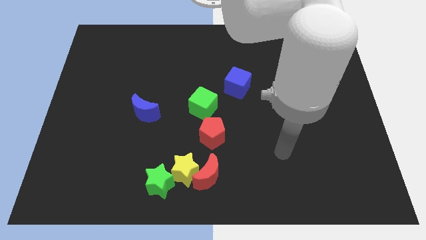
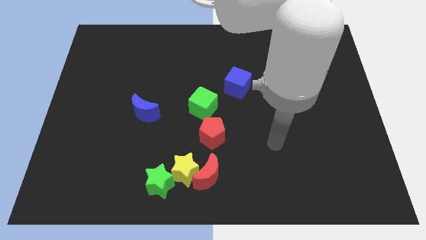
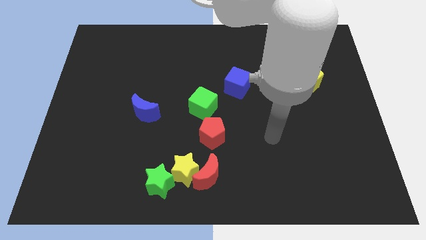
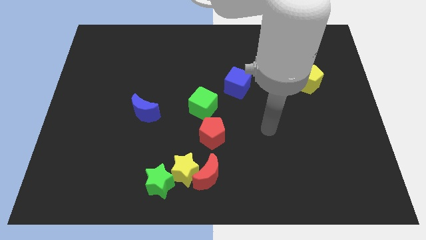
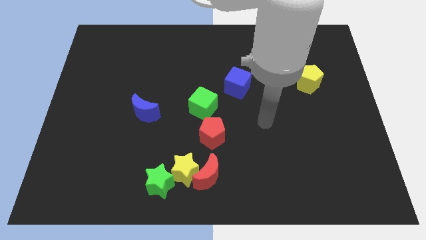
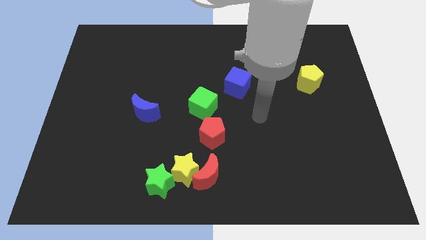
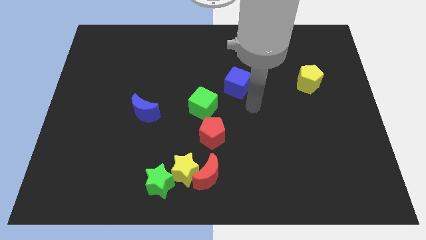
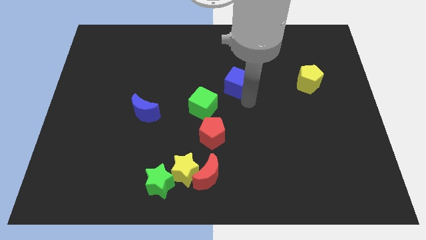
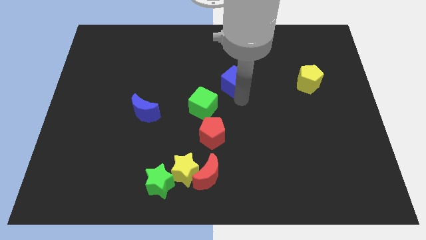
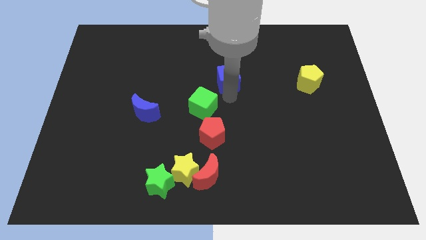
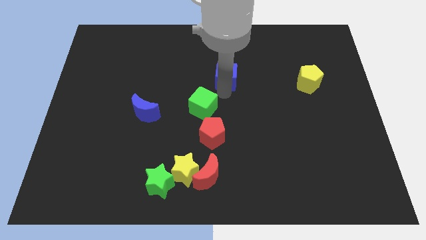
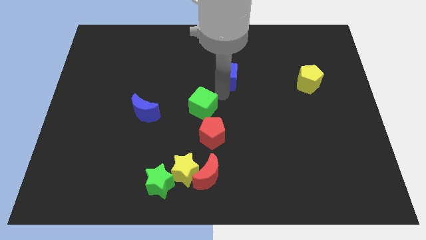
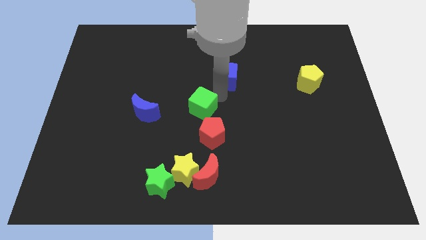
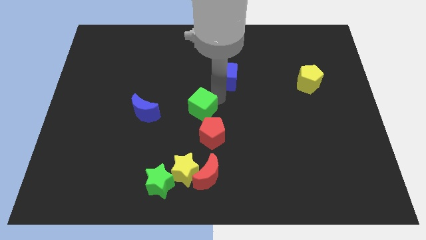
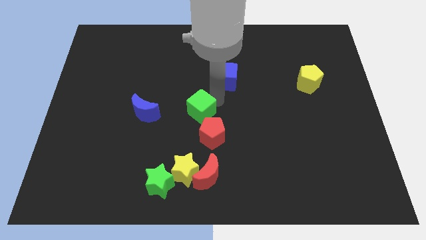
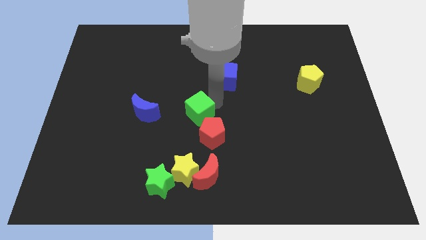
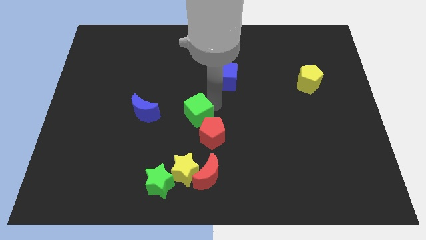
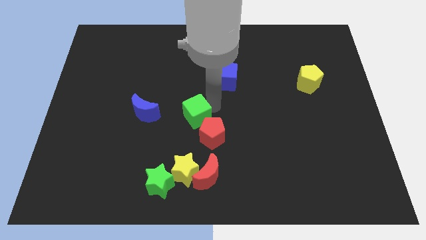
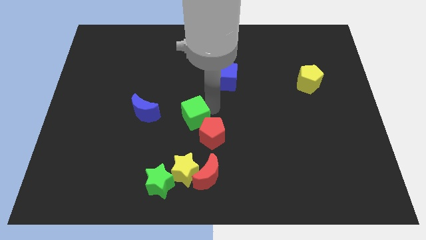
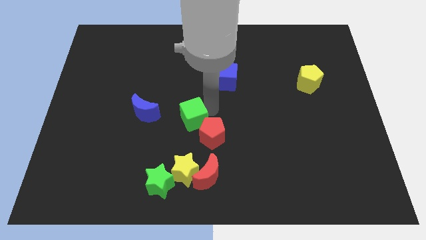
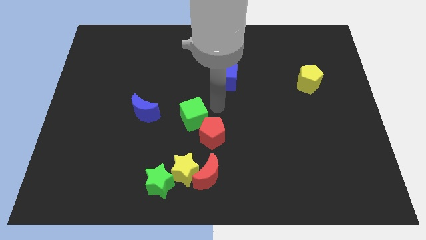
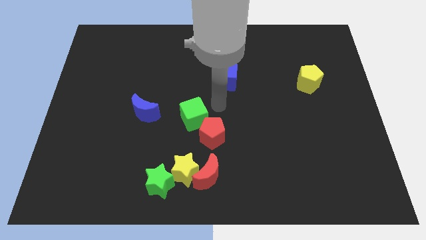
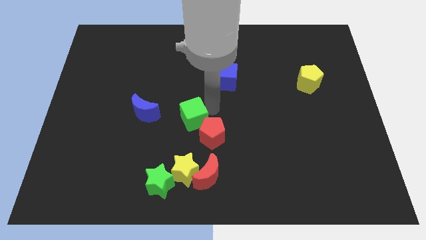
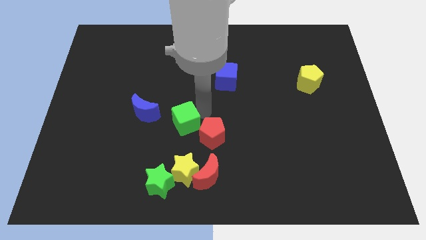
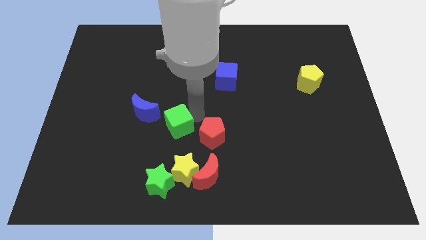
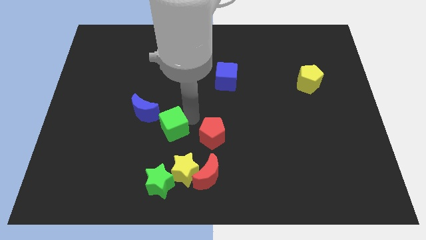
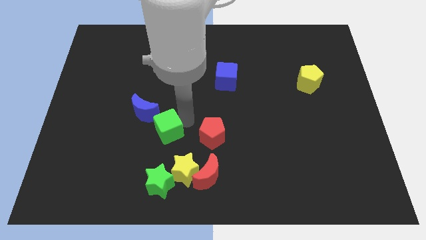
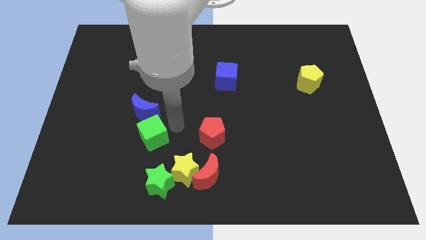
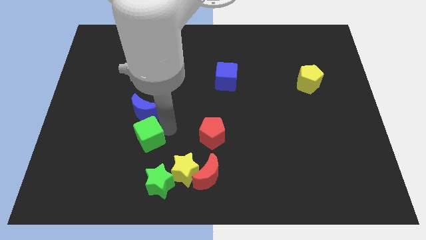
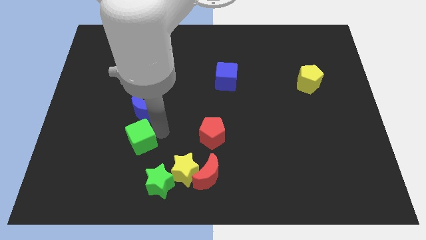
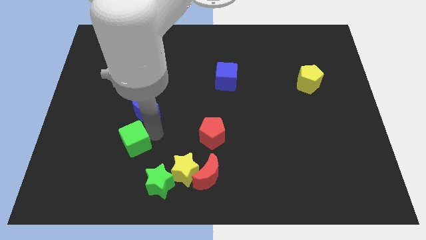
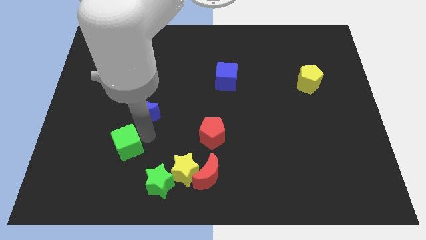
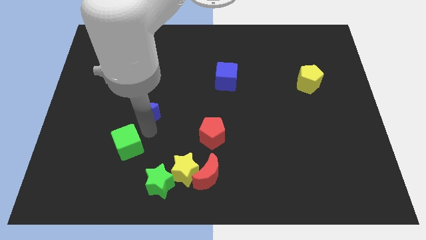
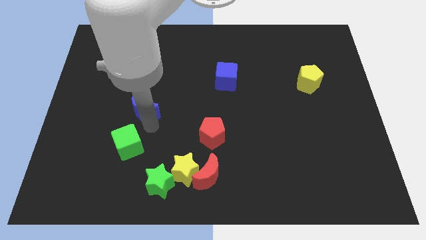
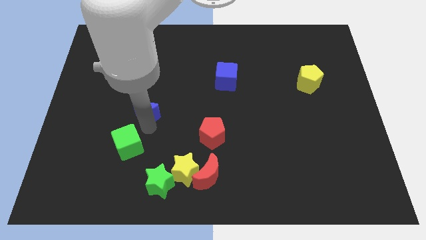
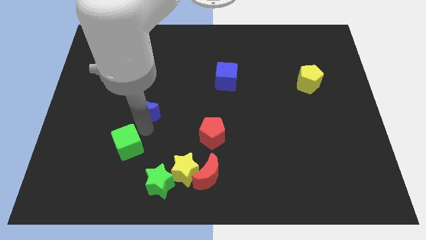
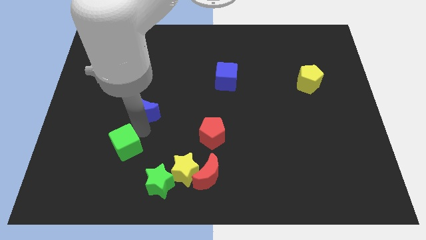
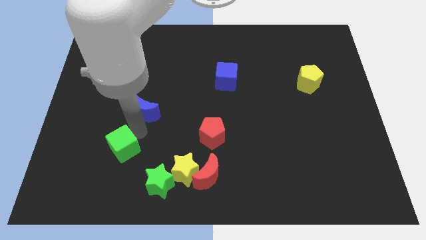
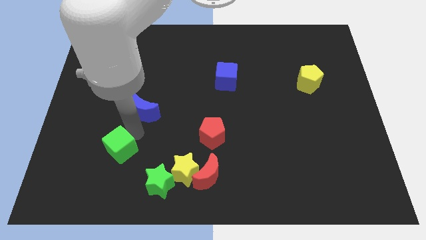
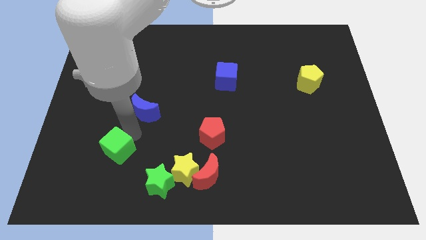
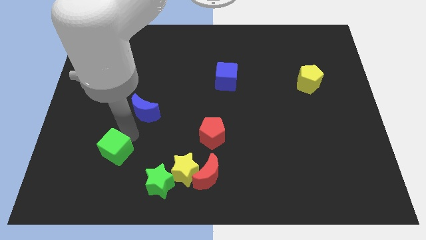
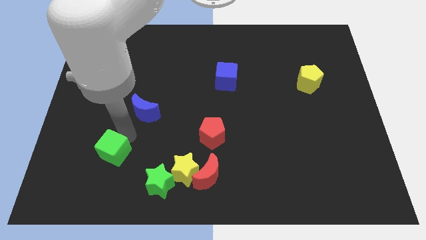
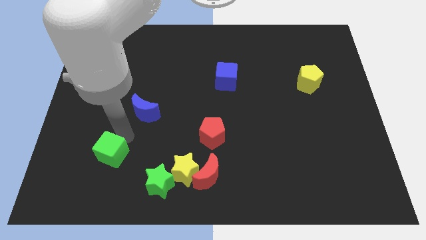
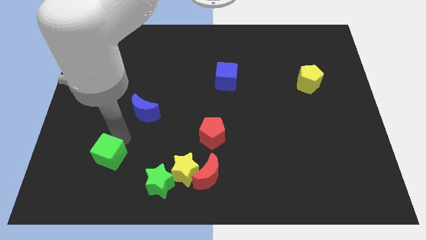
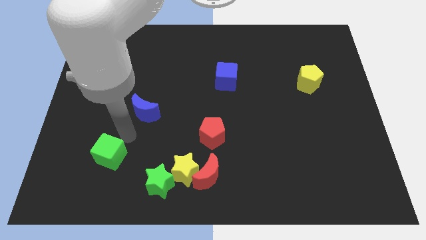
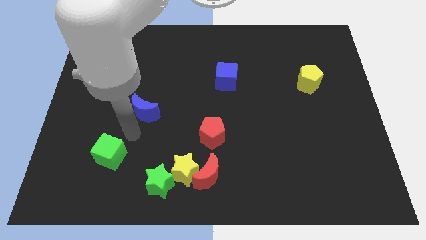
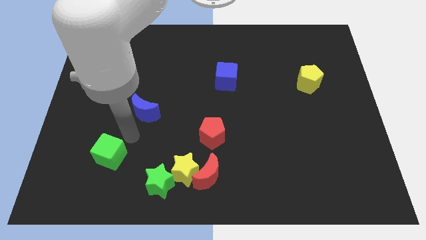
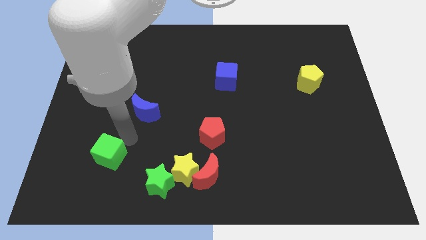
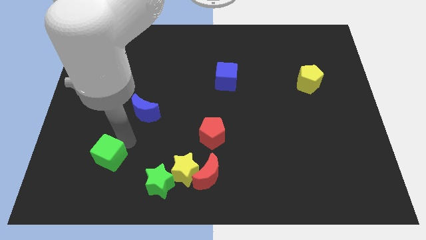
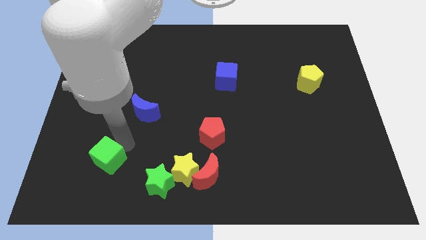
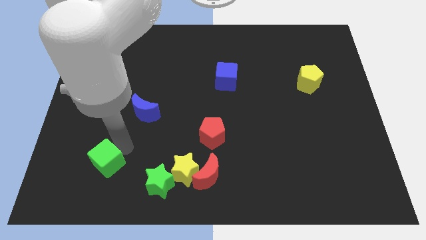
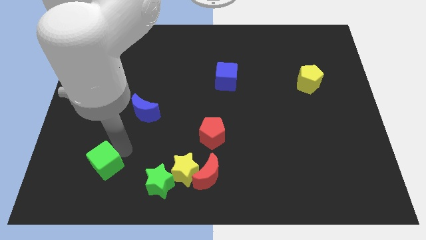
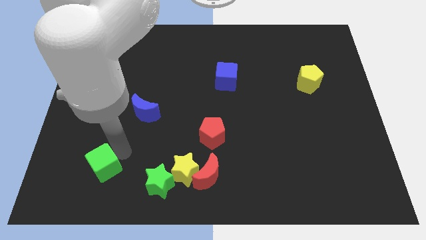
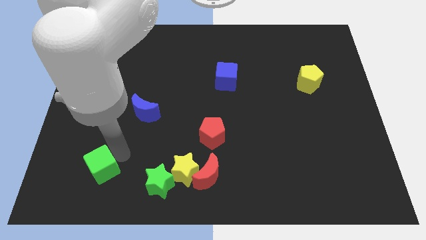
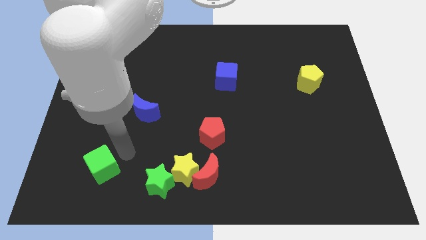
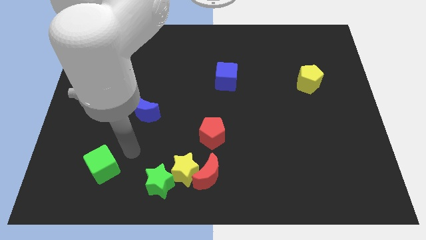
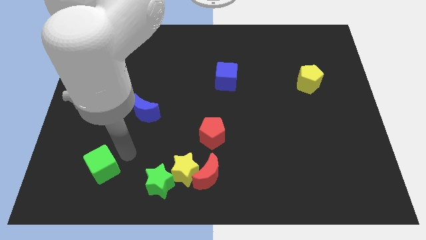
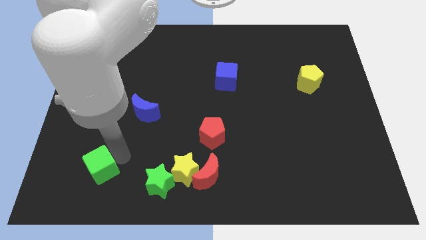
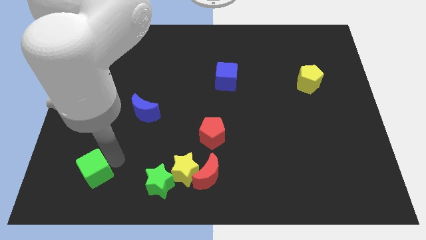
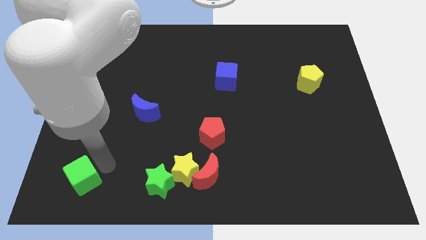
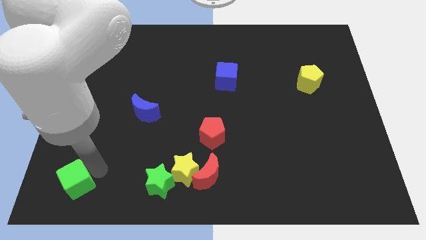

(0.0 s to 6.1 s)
slide the green cube to the bottom left of the board
